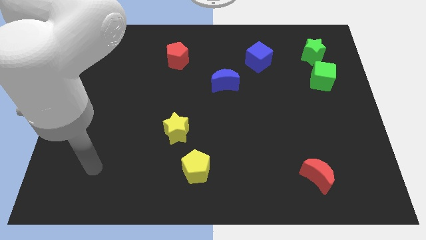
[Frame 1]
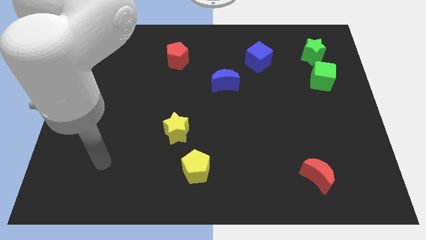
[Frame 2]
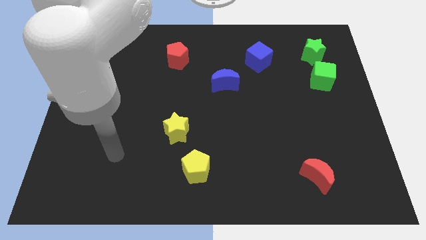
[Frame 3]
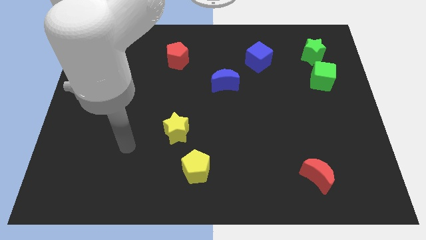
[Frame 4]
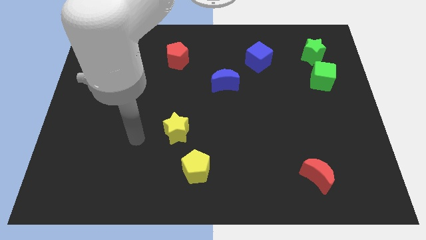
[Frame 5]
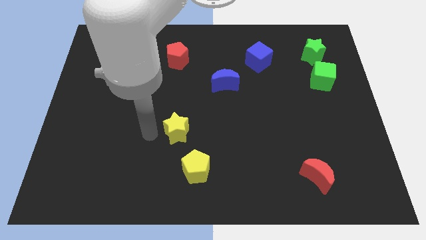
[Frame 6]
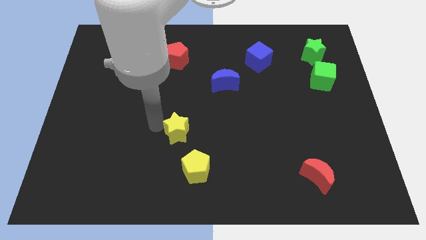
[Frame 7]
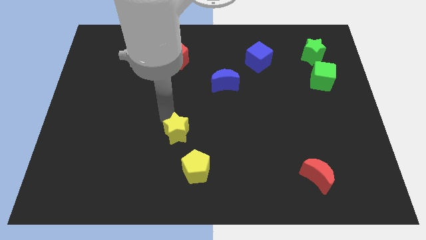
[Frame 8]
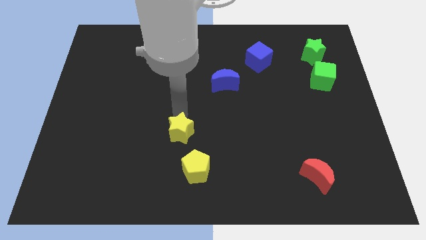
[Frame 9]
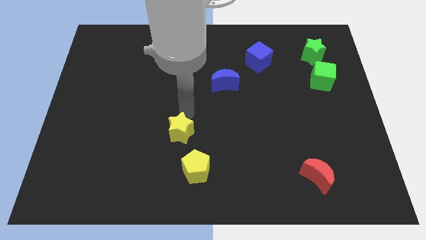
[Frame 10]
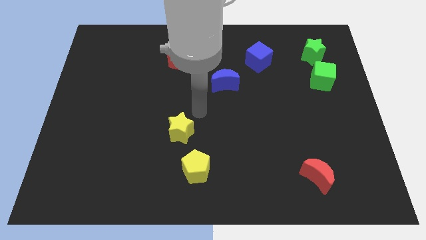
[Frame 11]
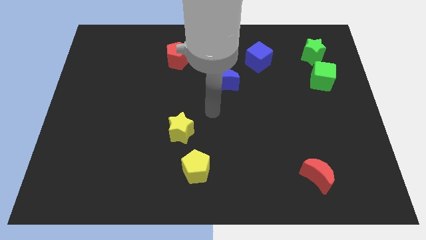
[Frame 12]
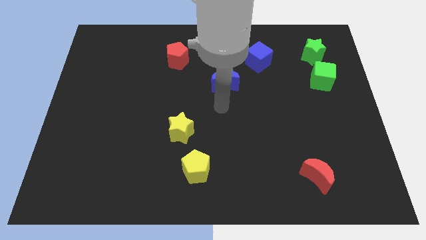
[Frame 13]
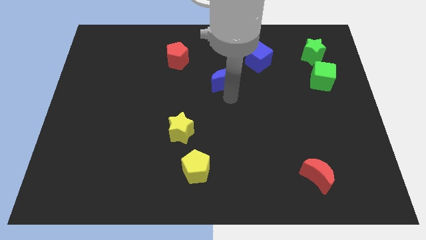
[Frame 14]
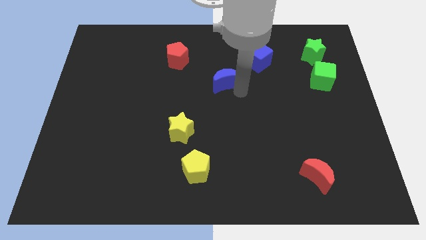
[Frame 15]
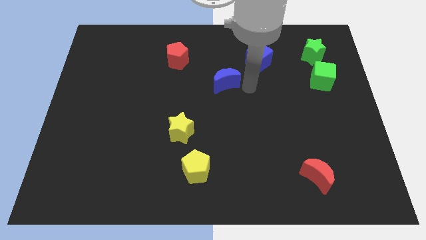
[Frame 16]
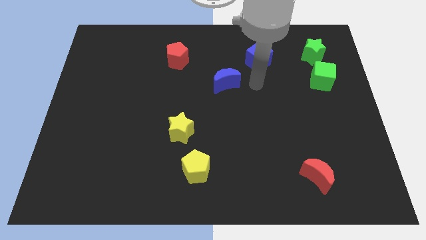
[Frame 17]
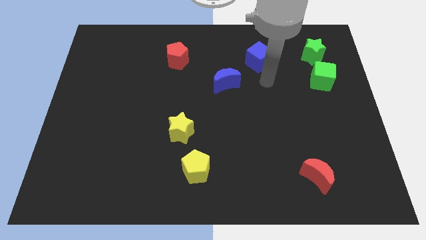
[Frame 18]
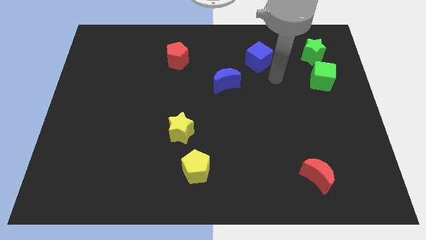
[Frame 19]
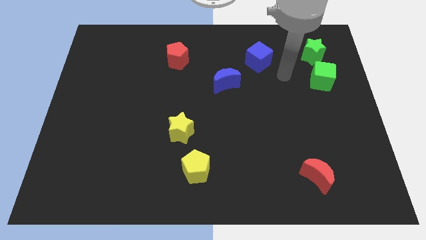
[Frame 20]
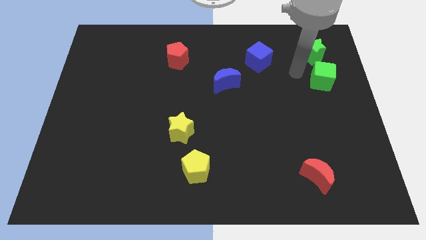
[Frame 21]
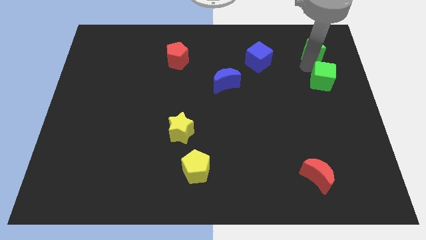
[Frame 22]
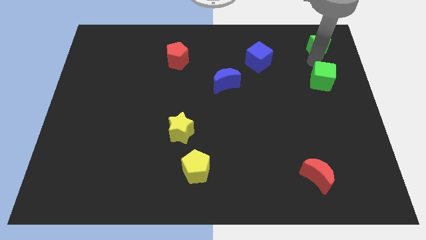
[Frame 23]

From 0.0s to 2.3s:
move the green cube away from the green star

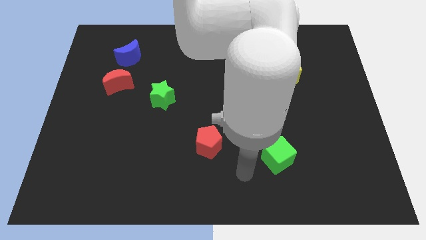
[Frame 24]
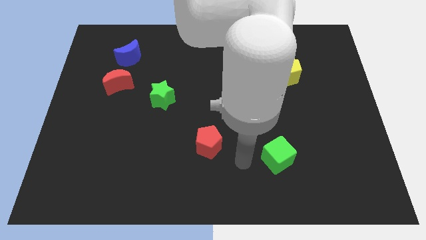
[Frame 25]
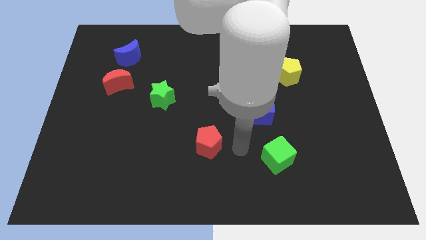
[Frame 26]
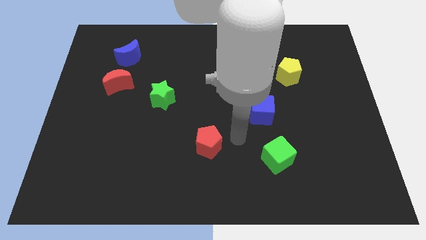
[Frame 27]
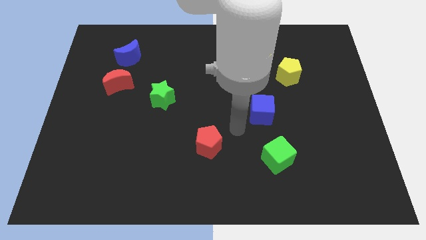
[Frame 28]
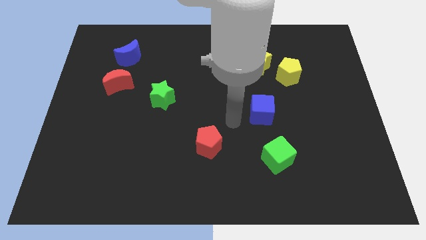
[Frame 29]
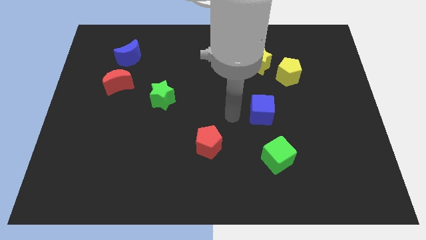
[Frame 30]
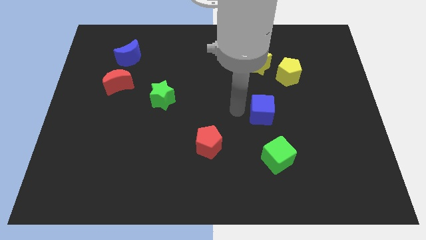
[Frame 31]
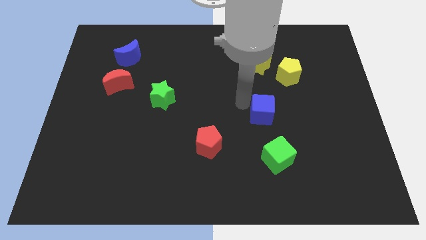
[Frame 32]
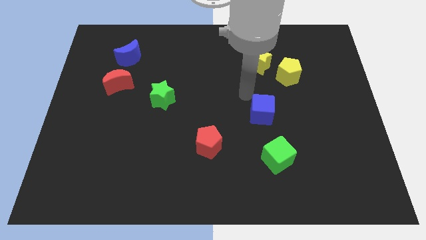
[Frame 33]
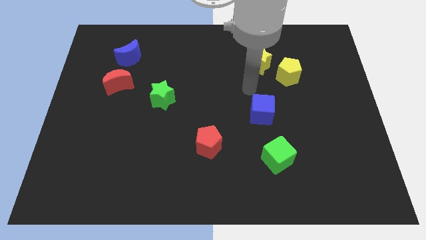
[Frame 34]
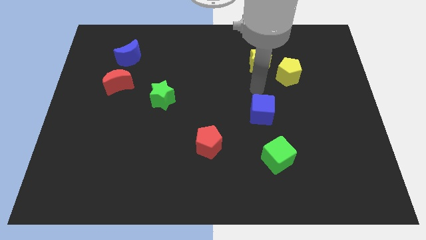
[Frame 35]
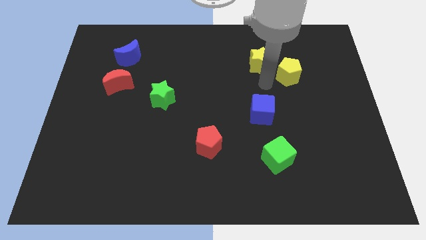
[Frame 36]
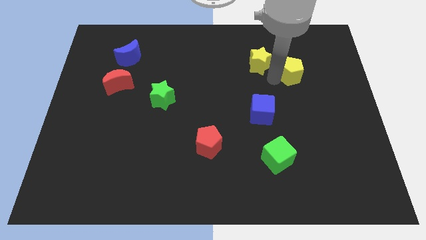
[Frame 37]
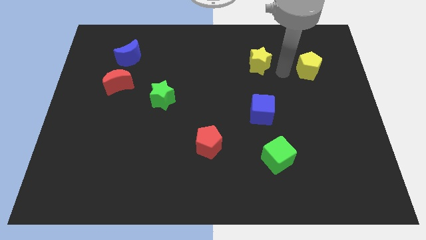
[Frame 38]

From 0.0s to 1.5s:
separate the yellow star from the yellow pentagon

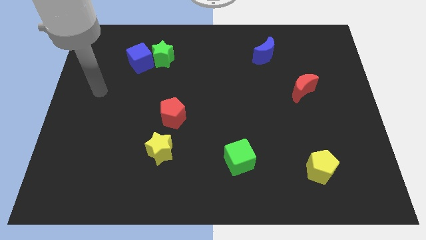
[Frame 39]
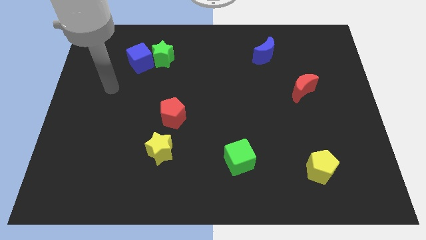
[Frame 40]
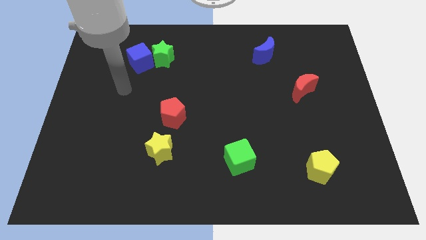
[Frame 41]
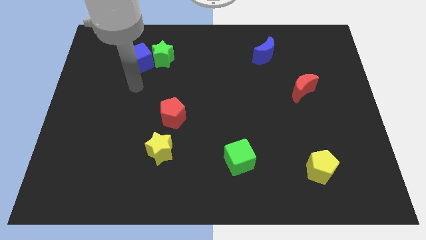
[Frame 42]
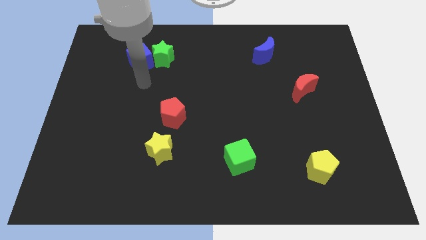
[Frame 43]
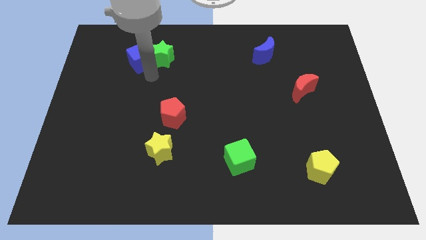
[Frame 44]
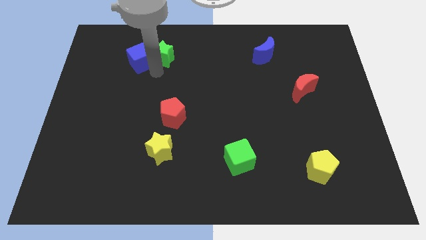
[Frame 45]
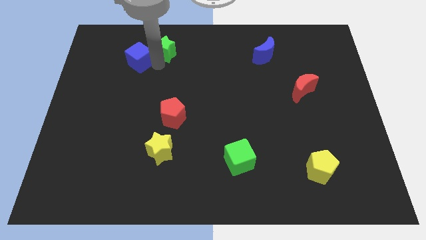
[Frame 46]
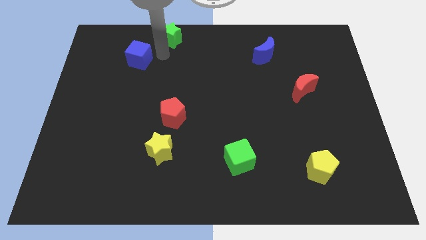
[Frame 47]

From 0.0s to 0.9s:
pull the blue cube apart from the green star

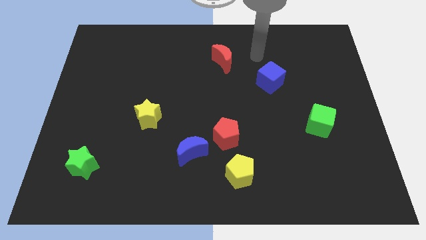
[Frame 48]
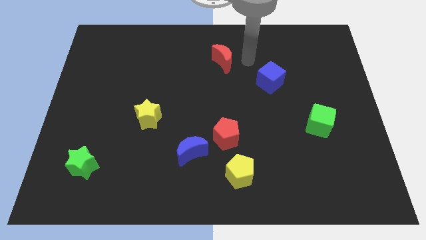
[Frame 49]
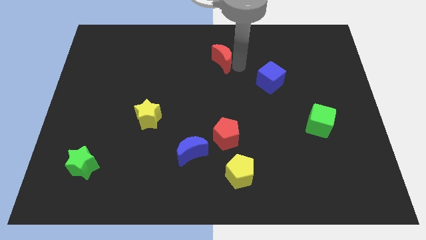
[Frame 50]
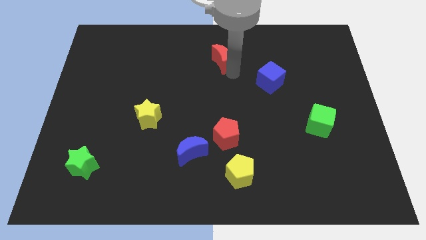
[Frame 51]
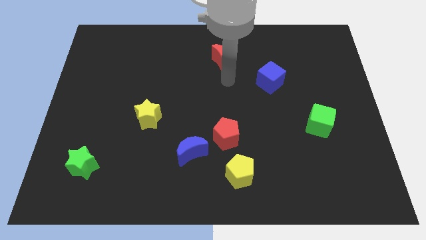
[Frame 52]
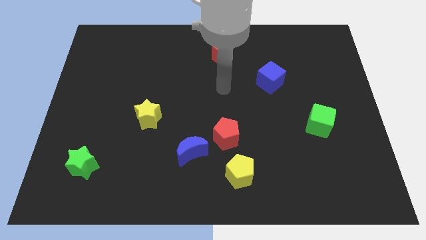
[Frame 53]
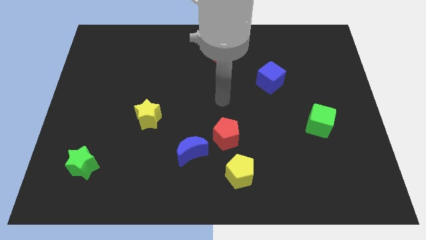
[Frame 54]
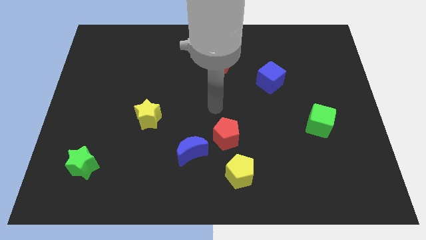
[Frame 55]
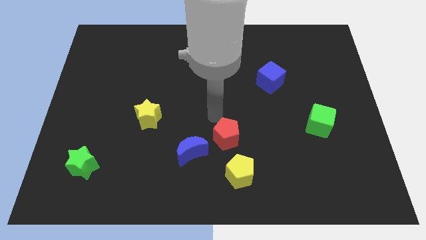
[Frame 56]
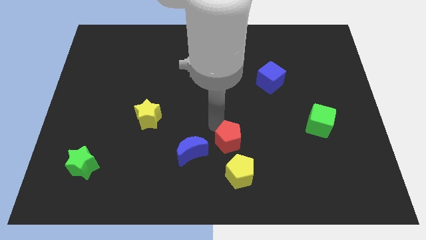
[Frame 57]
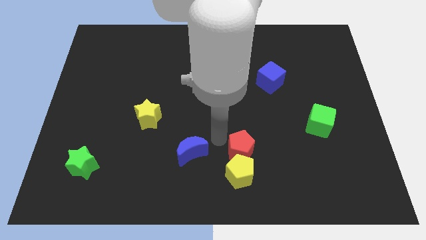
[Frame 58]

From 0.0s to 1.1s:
move the blue moon away from the red pentagon

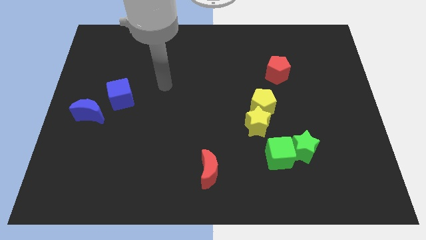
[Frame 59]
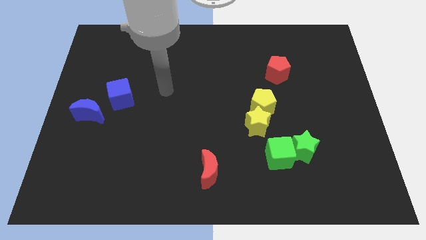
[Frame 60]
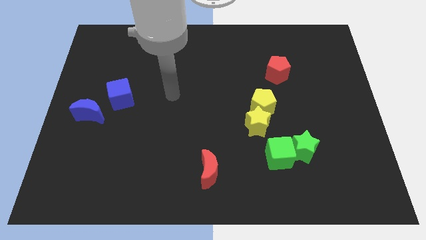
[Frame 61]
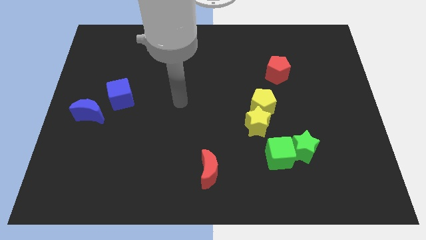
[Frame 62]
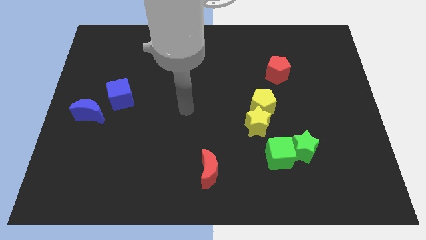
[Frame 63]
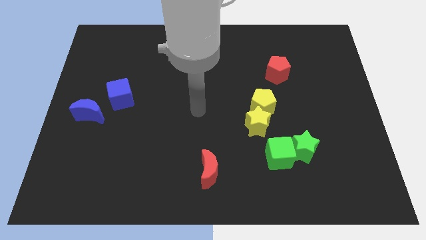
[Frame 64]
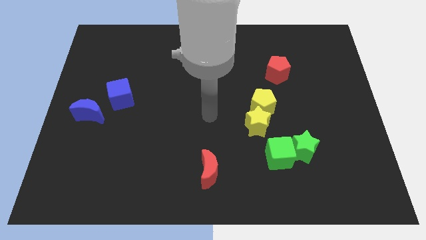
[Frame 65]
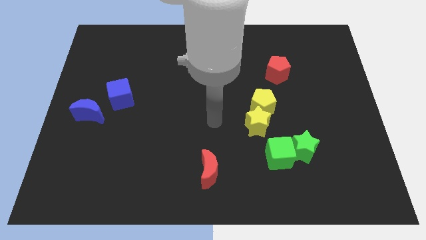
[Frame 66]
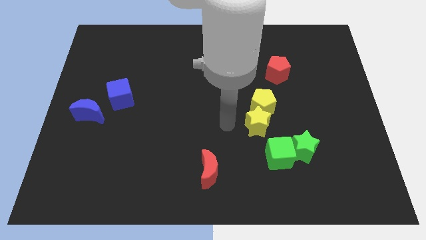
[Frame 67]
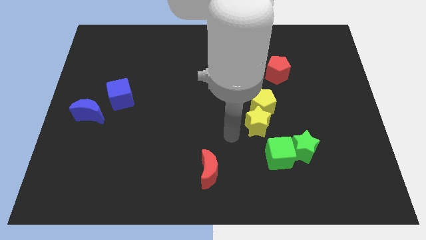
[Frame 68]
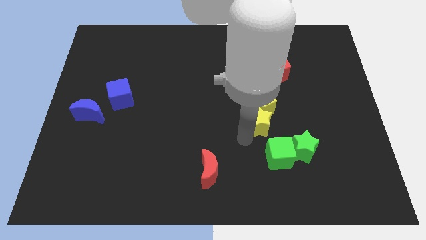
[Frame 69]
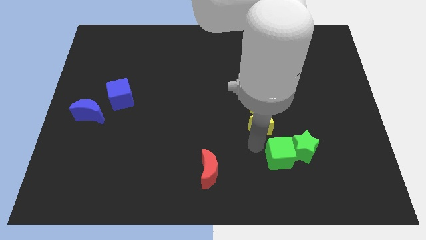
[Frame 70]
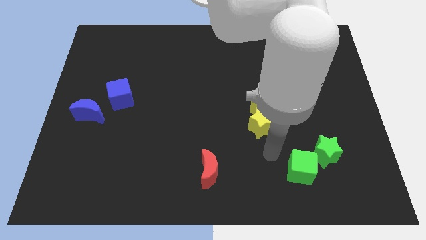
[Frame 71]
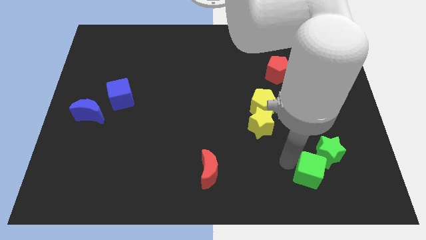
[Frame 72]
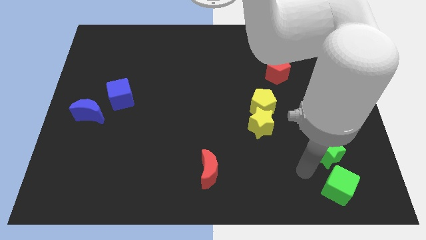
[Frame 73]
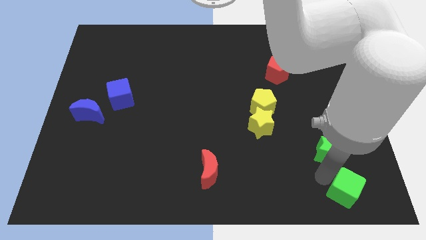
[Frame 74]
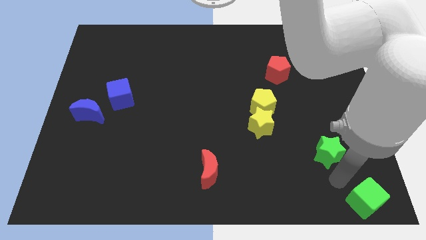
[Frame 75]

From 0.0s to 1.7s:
pull the green star apart from the green cube

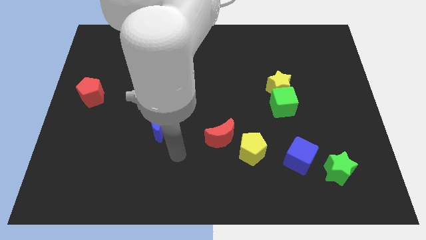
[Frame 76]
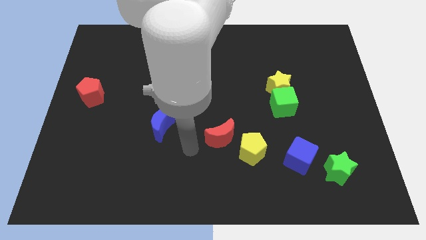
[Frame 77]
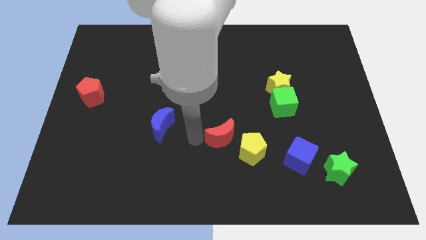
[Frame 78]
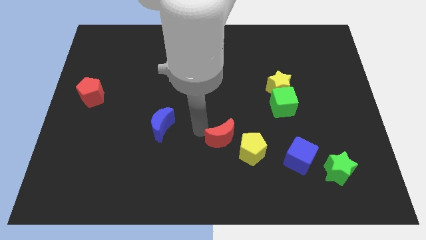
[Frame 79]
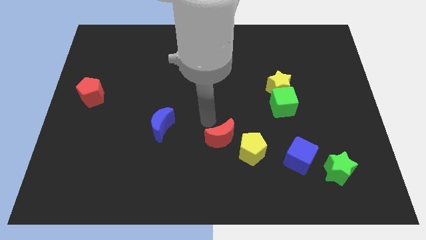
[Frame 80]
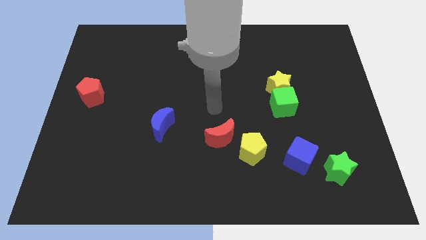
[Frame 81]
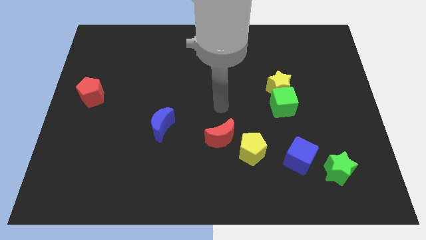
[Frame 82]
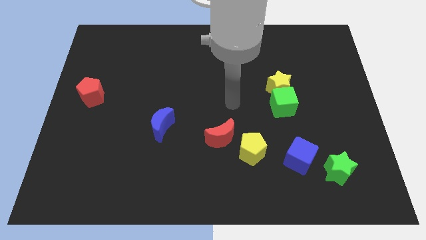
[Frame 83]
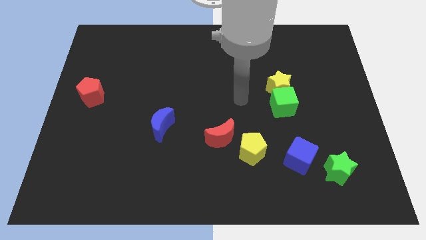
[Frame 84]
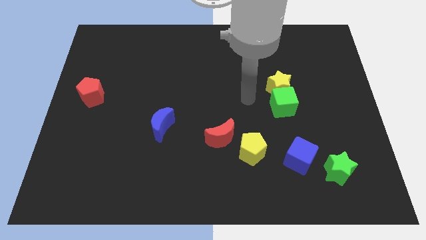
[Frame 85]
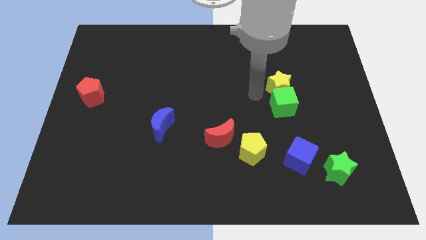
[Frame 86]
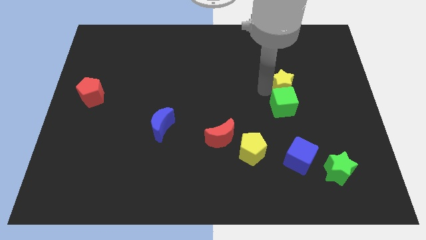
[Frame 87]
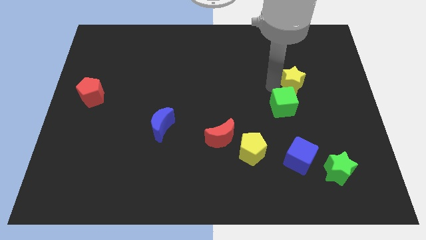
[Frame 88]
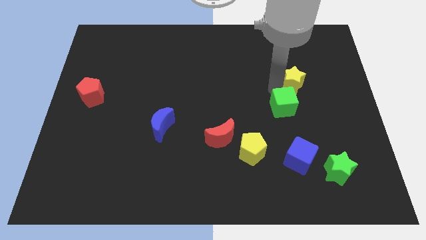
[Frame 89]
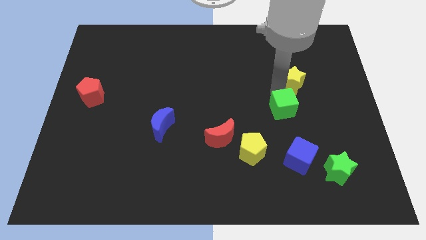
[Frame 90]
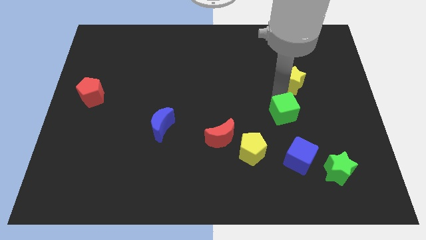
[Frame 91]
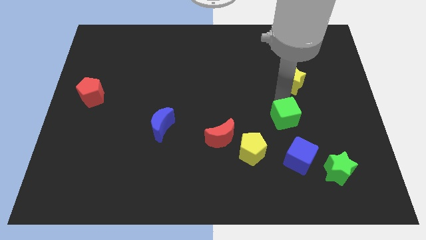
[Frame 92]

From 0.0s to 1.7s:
separate the green cube from the yellow star
